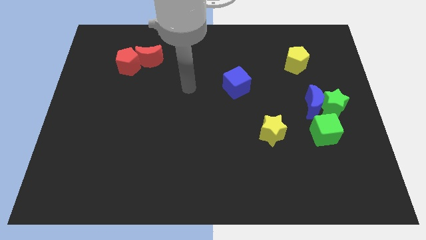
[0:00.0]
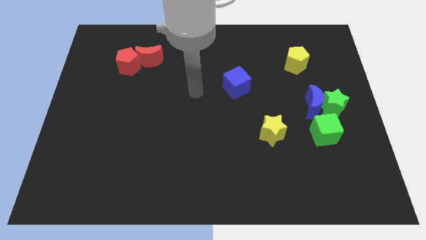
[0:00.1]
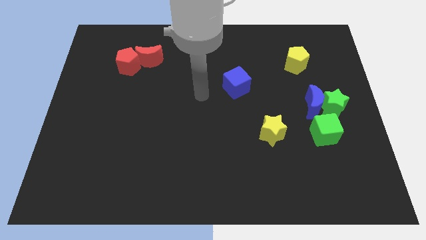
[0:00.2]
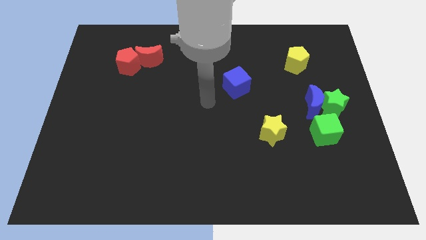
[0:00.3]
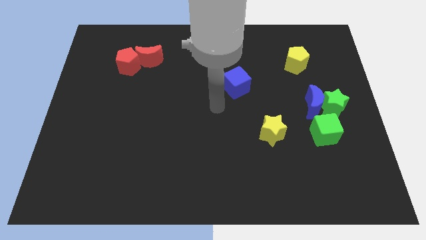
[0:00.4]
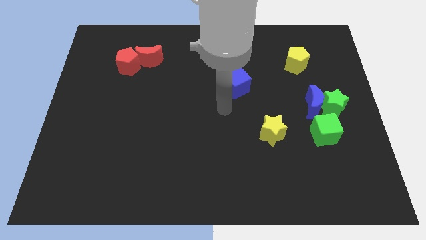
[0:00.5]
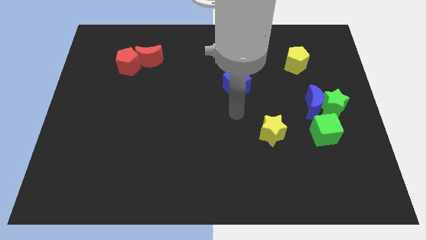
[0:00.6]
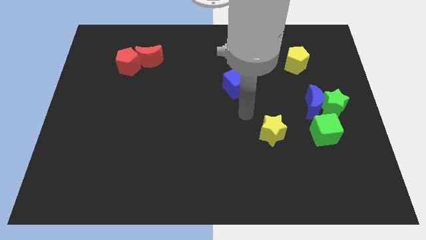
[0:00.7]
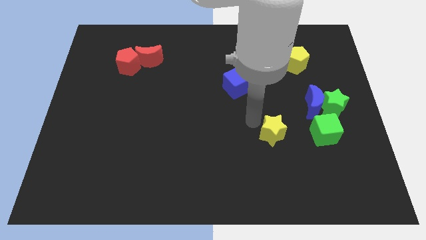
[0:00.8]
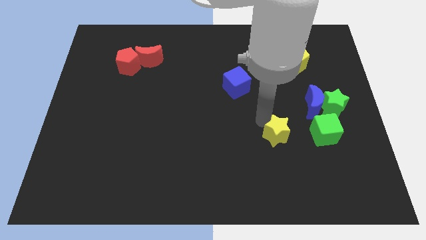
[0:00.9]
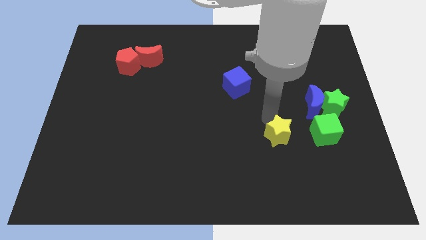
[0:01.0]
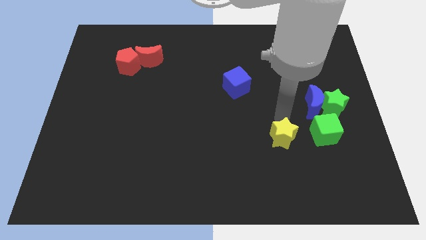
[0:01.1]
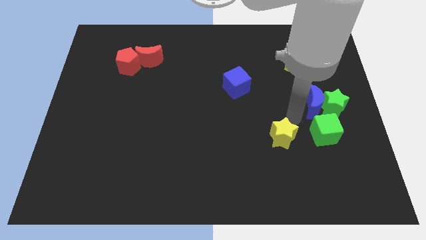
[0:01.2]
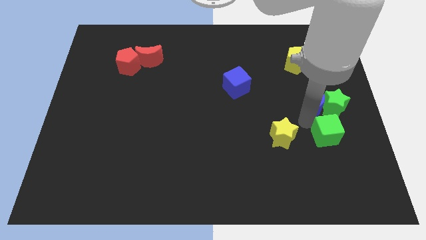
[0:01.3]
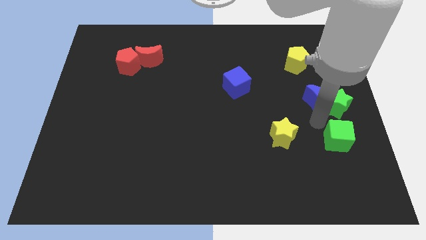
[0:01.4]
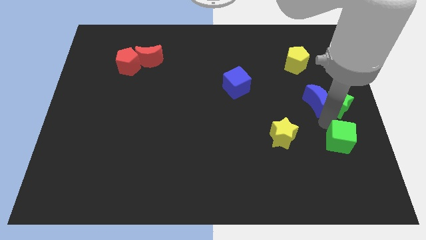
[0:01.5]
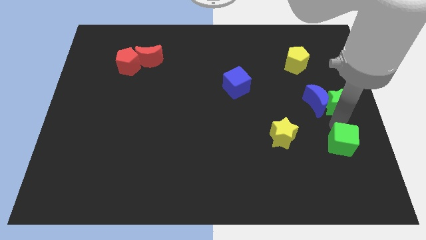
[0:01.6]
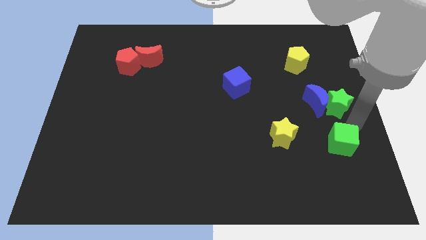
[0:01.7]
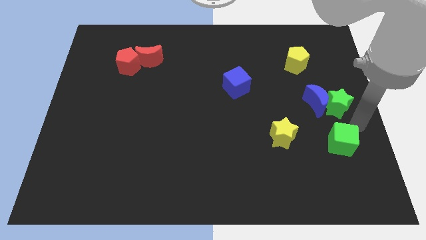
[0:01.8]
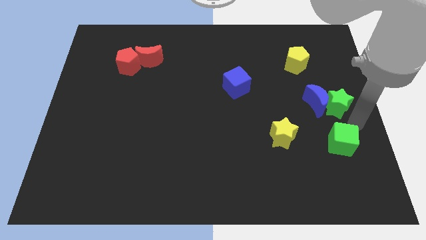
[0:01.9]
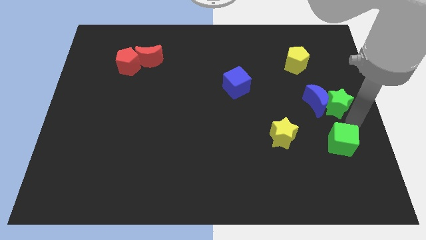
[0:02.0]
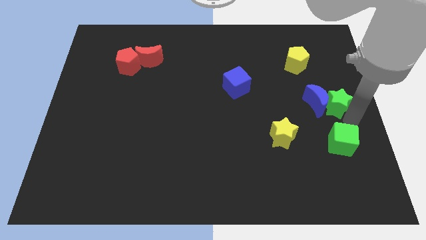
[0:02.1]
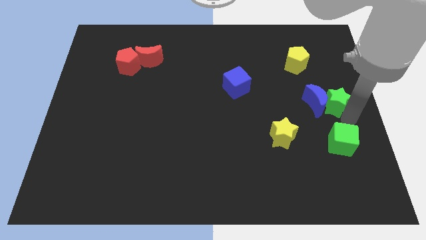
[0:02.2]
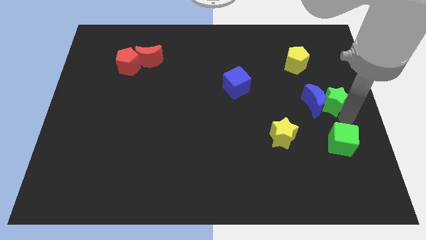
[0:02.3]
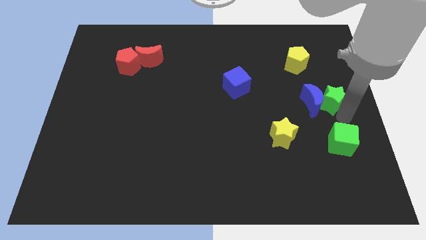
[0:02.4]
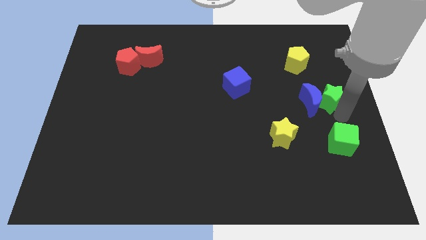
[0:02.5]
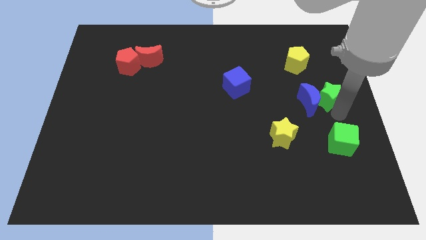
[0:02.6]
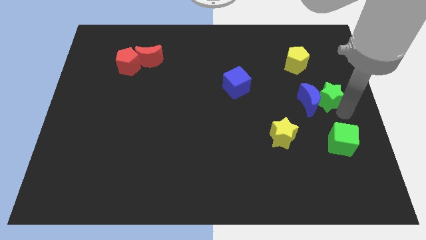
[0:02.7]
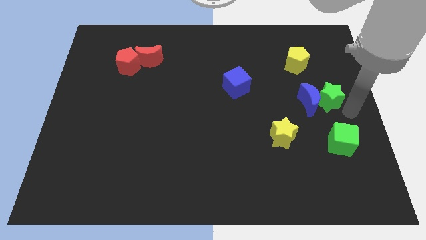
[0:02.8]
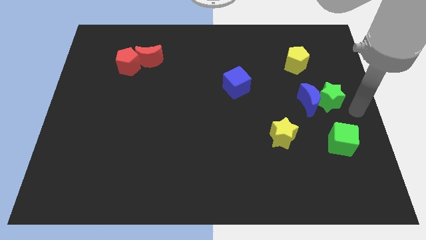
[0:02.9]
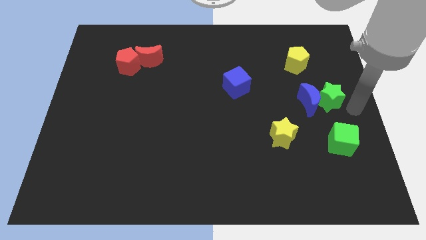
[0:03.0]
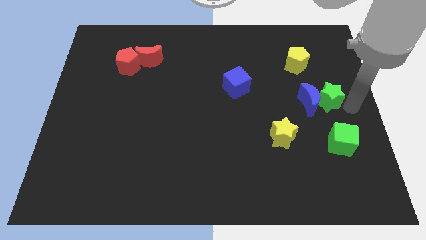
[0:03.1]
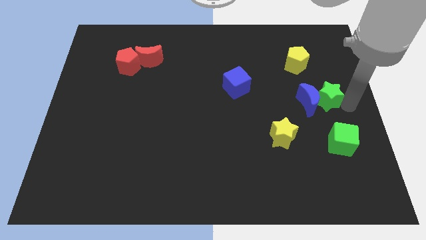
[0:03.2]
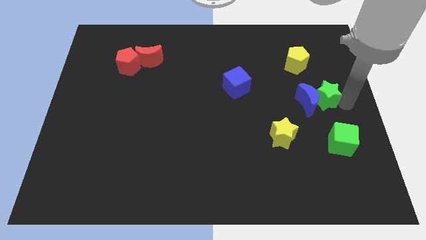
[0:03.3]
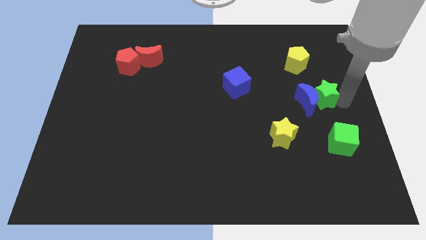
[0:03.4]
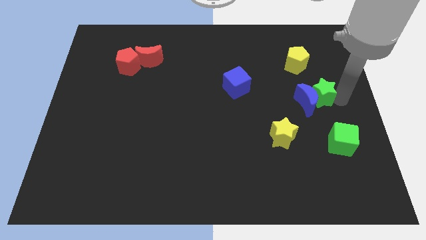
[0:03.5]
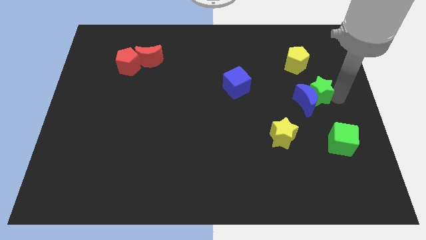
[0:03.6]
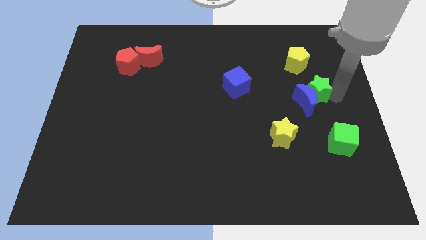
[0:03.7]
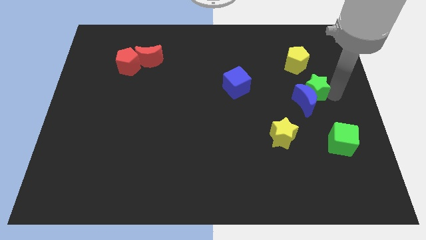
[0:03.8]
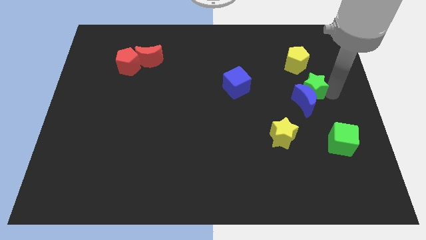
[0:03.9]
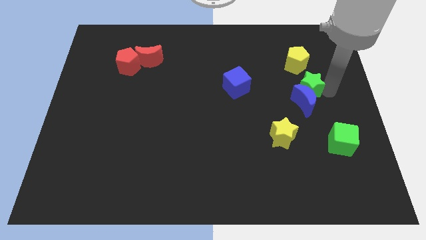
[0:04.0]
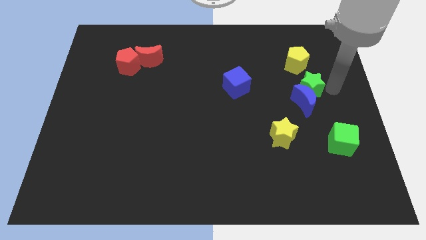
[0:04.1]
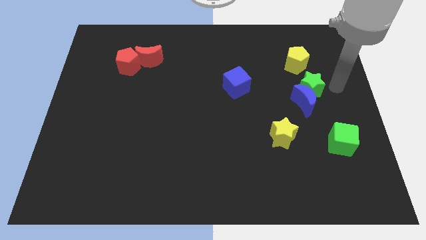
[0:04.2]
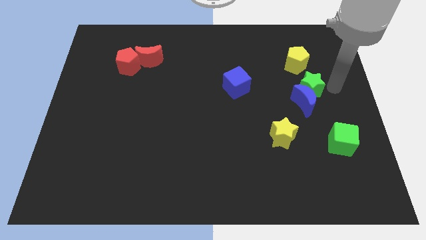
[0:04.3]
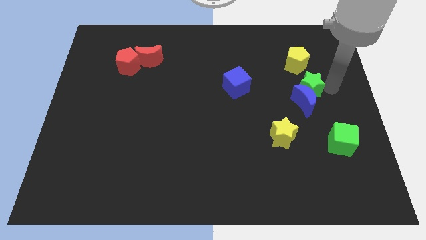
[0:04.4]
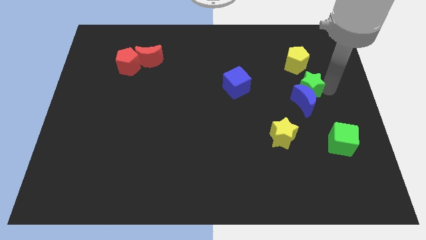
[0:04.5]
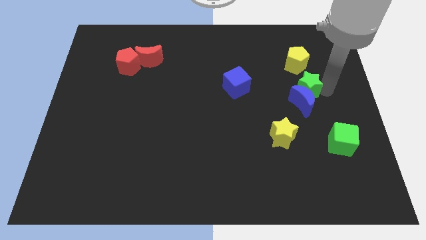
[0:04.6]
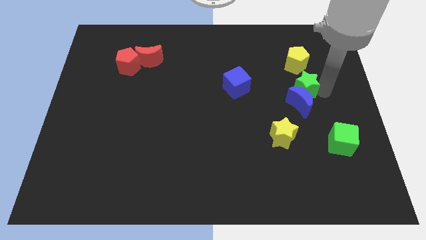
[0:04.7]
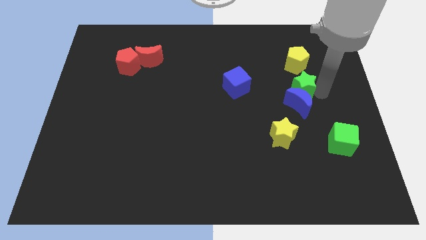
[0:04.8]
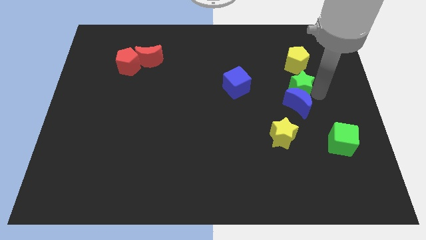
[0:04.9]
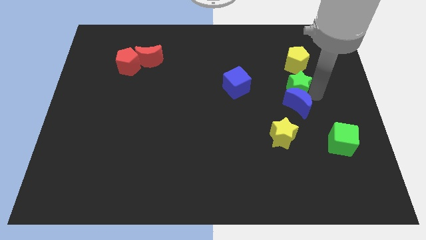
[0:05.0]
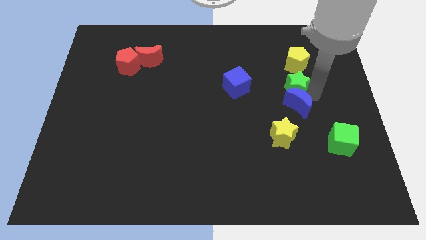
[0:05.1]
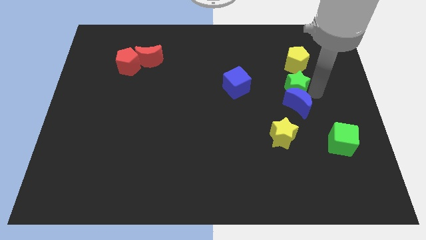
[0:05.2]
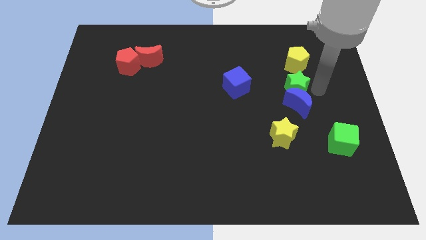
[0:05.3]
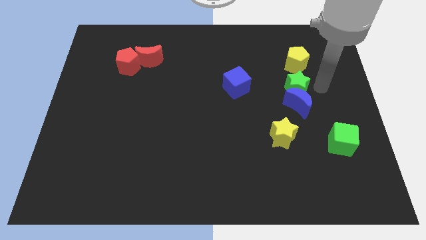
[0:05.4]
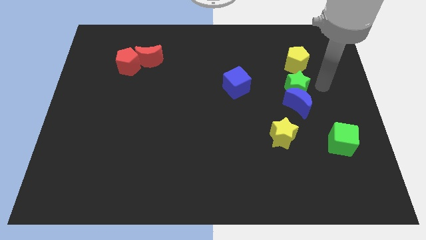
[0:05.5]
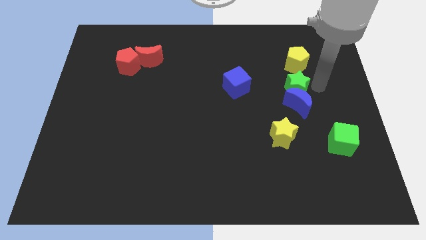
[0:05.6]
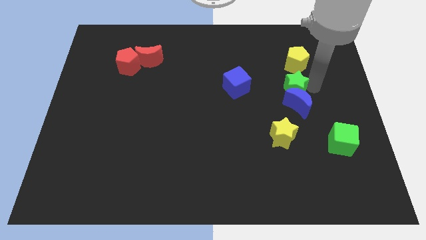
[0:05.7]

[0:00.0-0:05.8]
push the green star to the left slightly

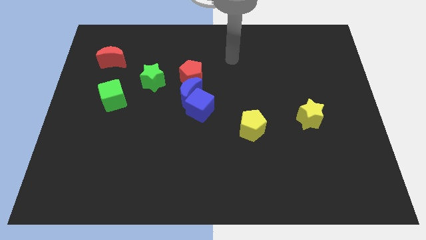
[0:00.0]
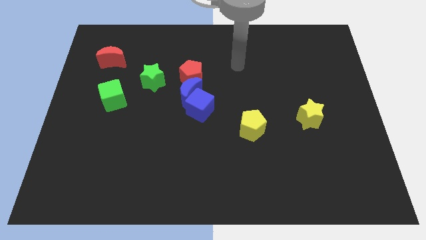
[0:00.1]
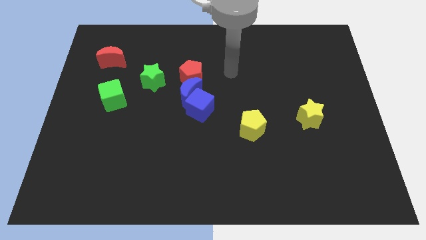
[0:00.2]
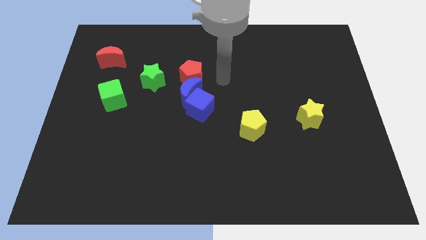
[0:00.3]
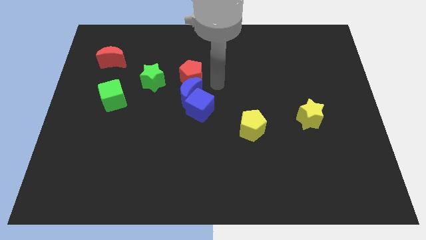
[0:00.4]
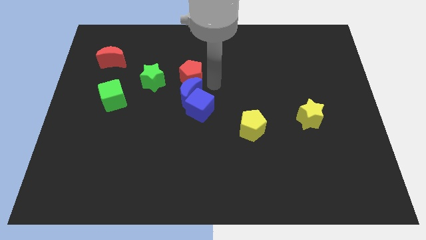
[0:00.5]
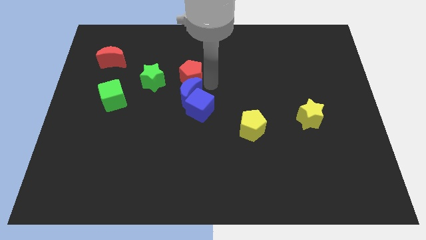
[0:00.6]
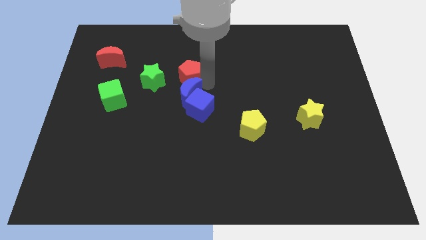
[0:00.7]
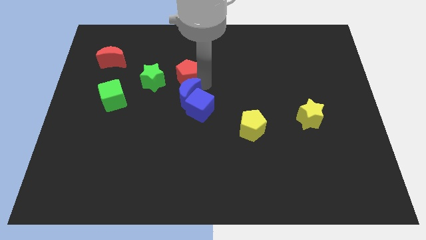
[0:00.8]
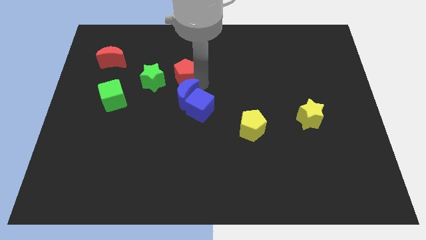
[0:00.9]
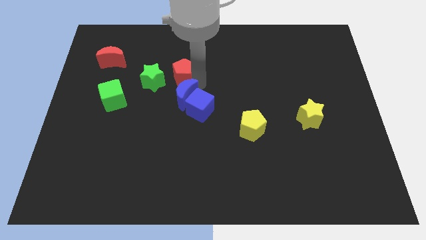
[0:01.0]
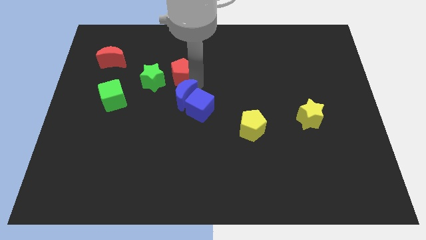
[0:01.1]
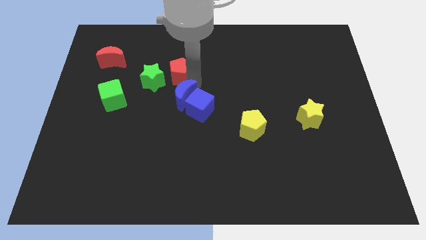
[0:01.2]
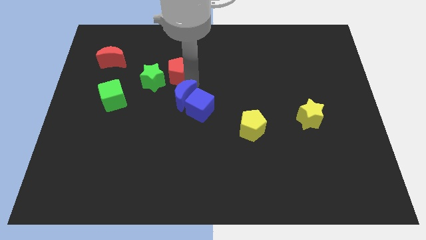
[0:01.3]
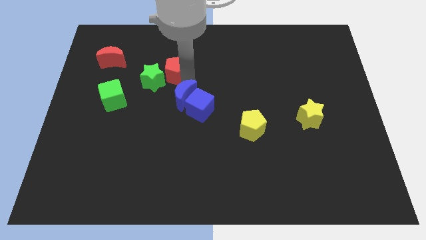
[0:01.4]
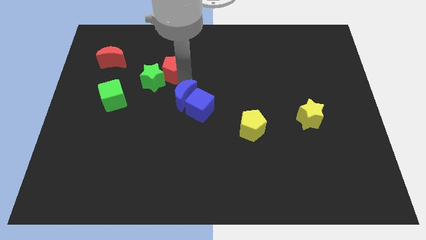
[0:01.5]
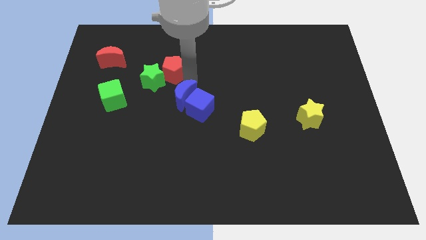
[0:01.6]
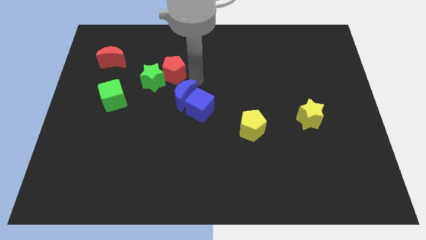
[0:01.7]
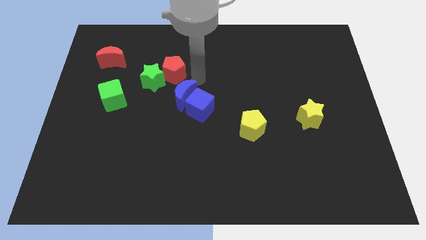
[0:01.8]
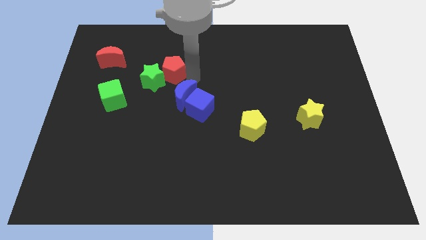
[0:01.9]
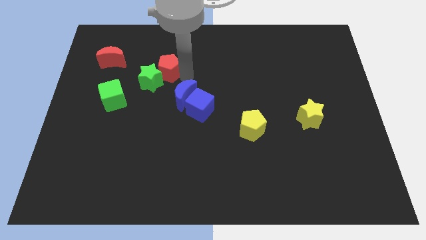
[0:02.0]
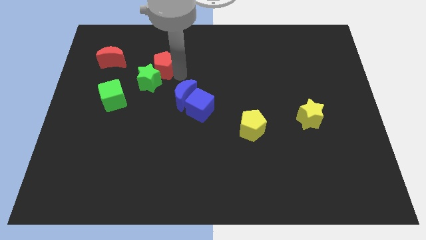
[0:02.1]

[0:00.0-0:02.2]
slide the red pentagon left a little
